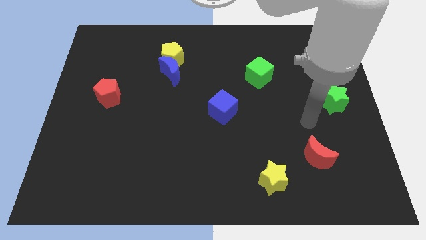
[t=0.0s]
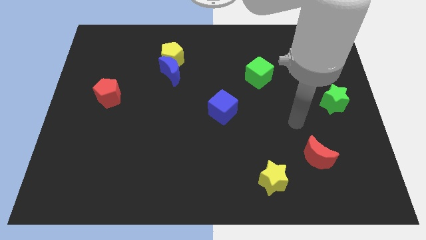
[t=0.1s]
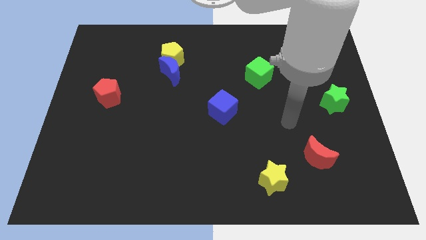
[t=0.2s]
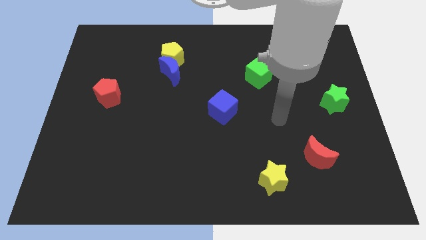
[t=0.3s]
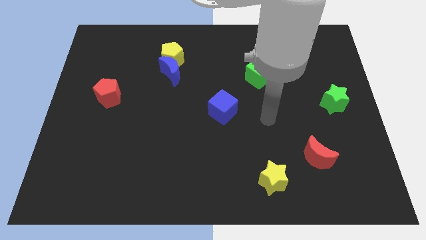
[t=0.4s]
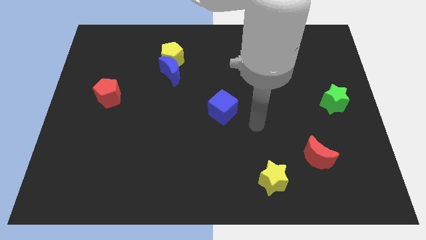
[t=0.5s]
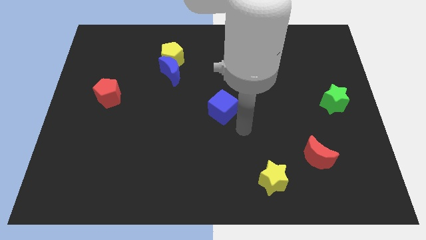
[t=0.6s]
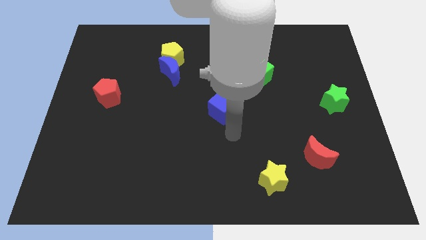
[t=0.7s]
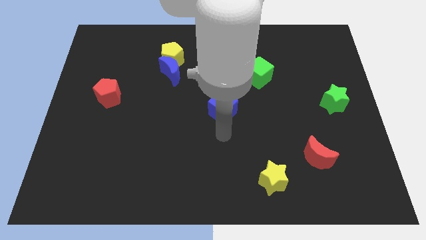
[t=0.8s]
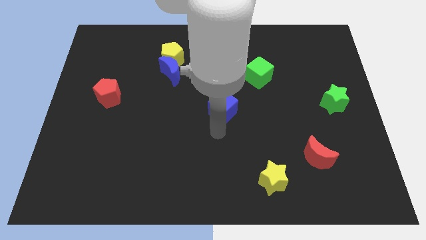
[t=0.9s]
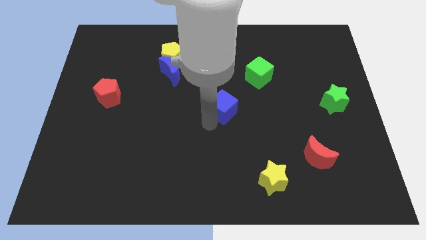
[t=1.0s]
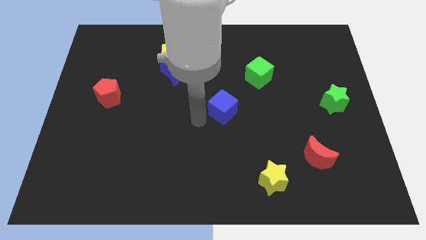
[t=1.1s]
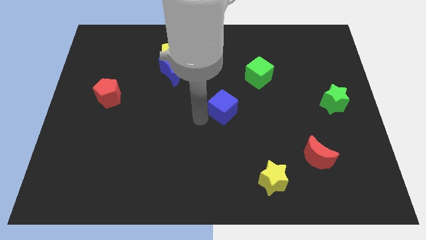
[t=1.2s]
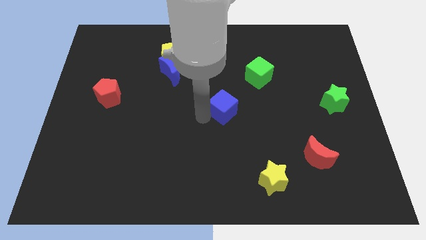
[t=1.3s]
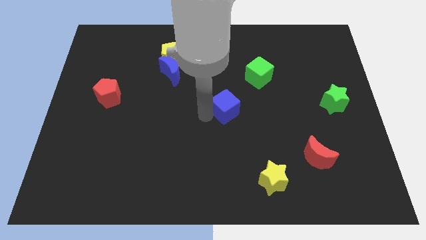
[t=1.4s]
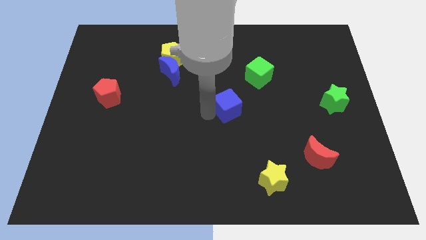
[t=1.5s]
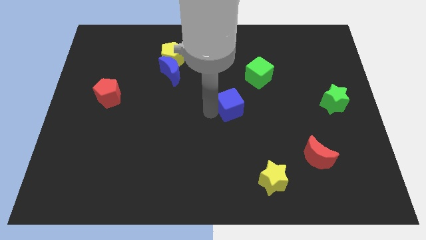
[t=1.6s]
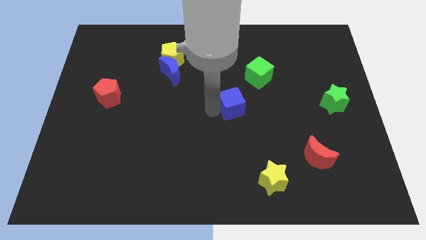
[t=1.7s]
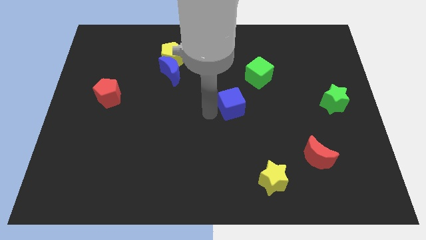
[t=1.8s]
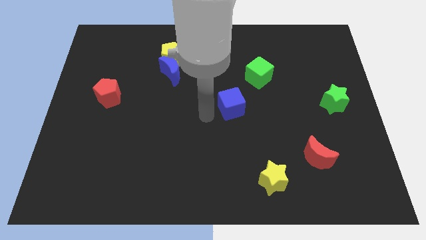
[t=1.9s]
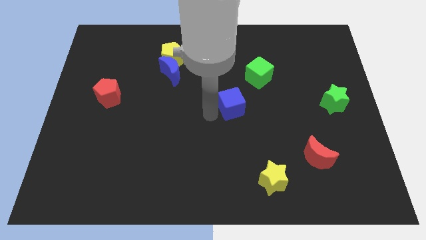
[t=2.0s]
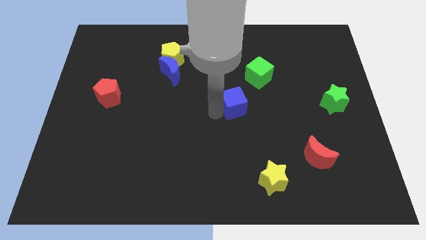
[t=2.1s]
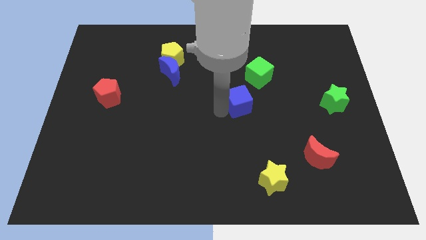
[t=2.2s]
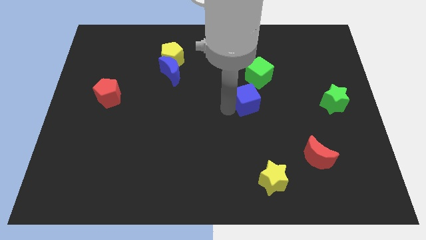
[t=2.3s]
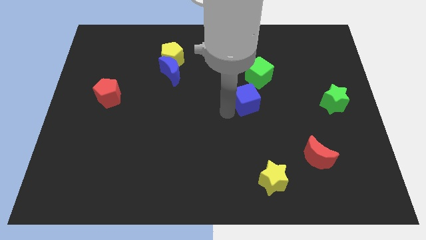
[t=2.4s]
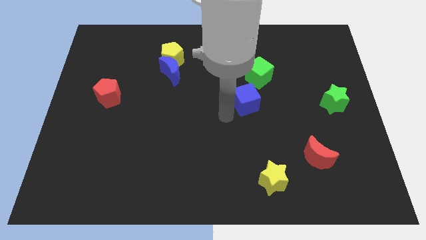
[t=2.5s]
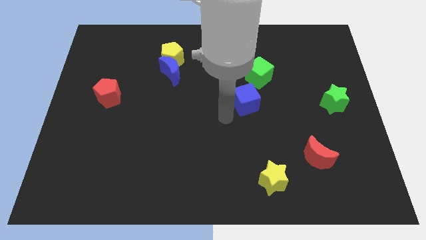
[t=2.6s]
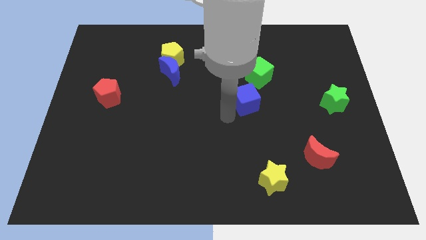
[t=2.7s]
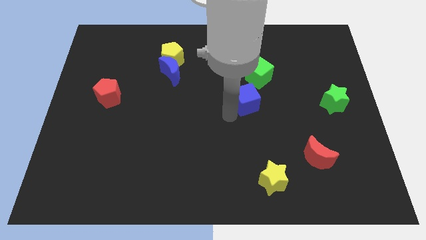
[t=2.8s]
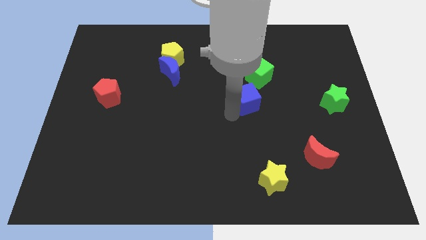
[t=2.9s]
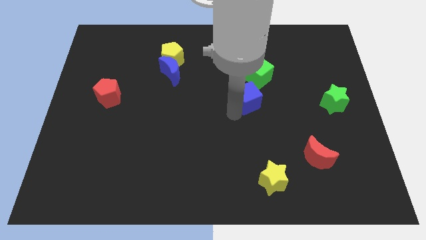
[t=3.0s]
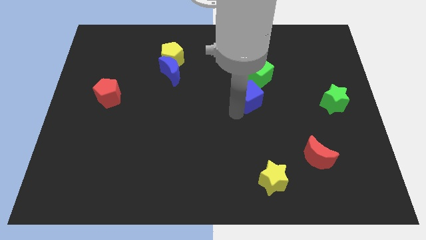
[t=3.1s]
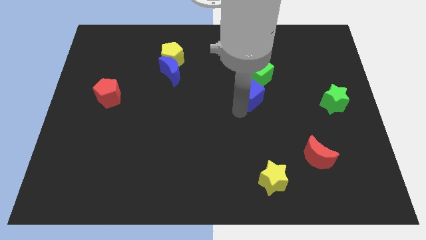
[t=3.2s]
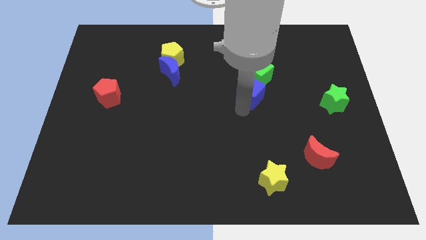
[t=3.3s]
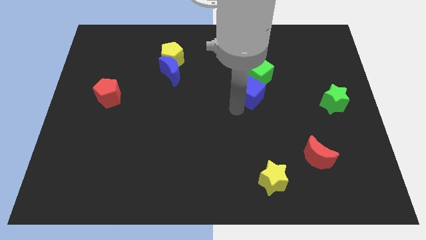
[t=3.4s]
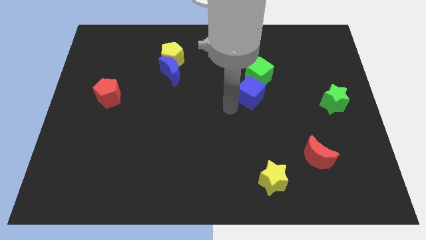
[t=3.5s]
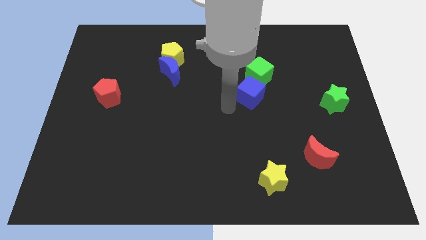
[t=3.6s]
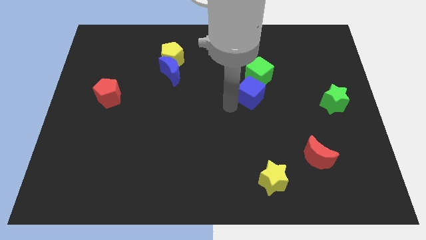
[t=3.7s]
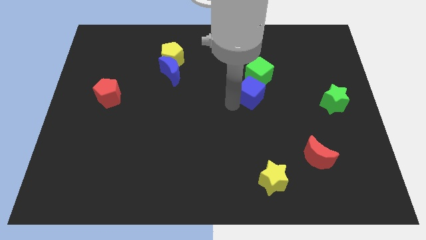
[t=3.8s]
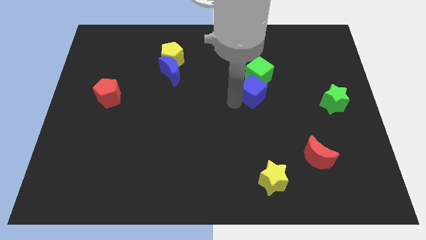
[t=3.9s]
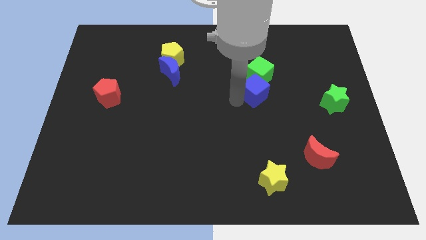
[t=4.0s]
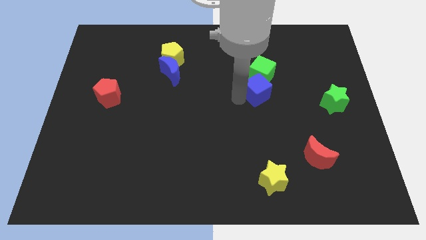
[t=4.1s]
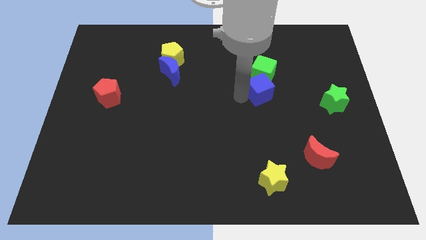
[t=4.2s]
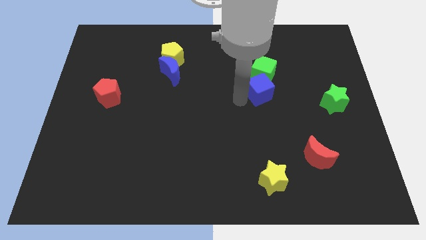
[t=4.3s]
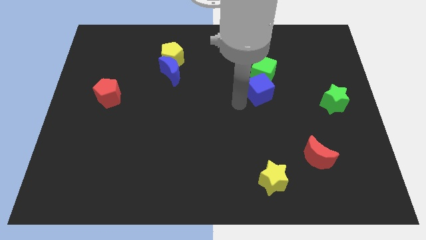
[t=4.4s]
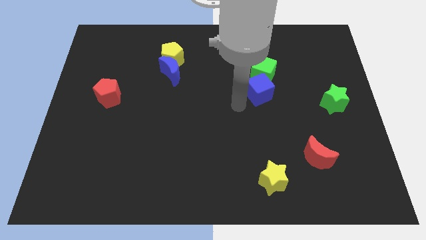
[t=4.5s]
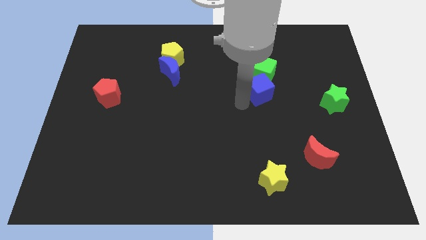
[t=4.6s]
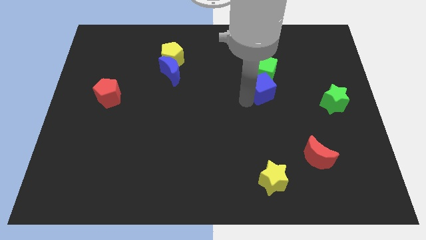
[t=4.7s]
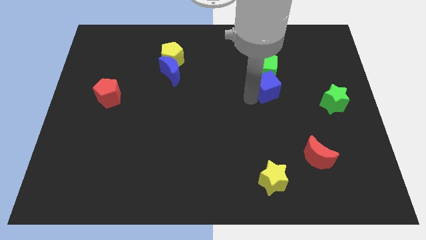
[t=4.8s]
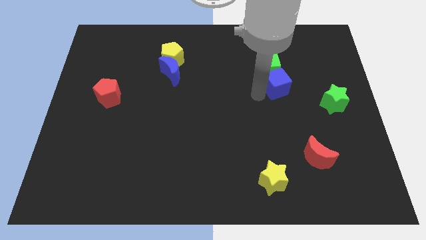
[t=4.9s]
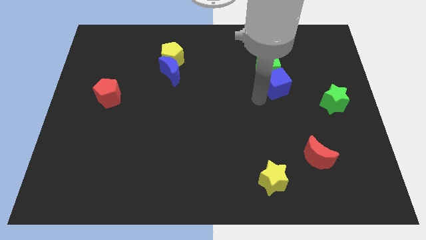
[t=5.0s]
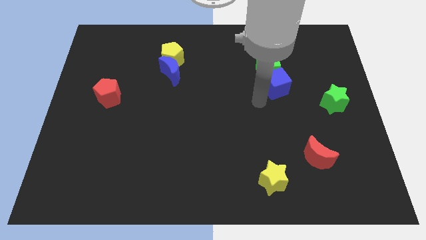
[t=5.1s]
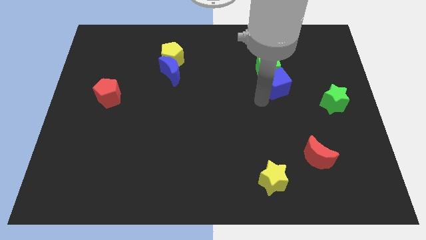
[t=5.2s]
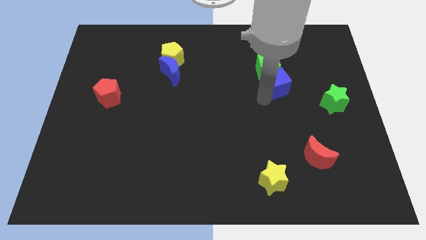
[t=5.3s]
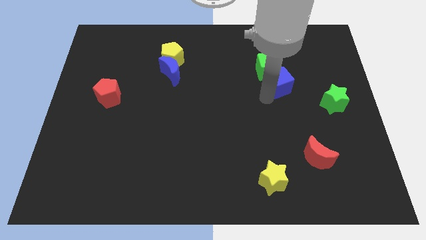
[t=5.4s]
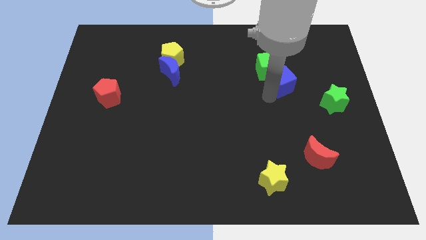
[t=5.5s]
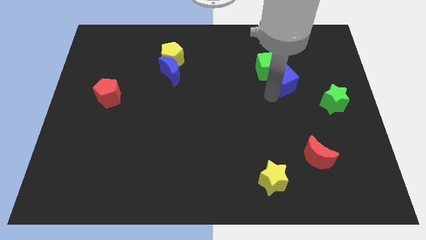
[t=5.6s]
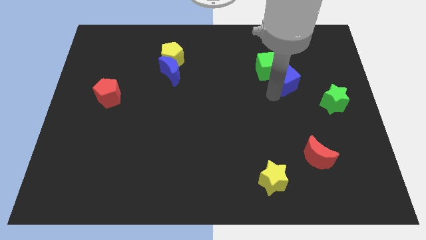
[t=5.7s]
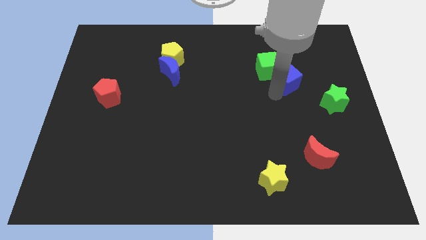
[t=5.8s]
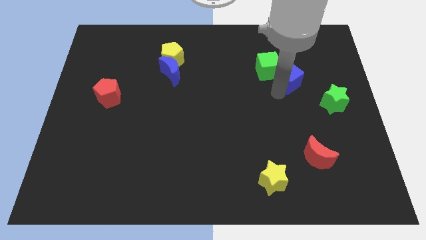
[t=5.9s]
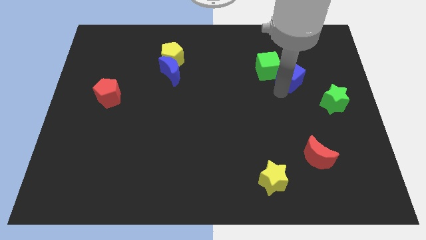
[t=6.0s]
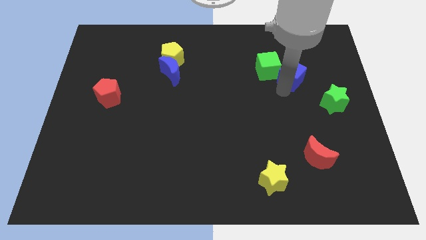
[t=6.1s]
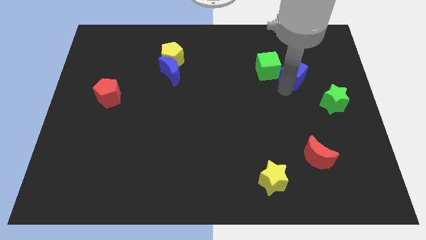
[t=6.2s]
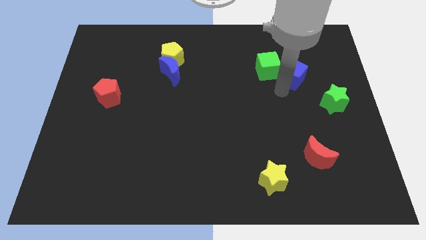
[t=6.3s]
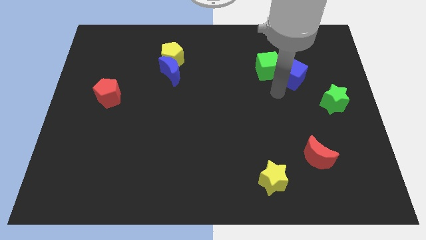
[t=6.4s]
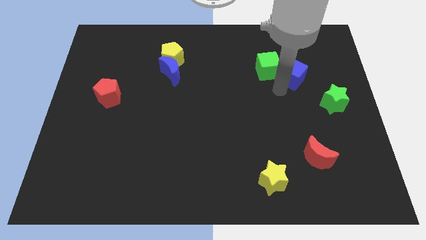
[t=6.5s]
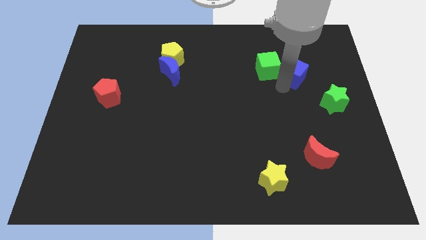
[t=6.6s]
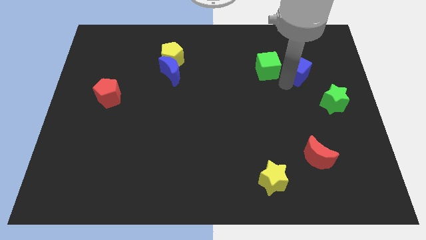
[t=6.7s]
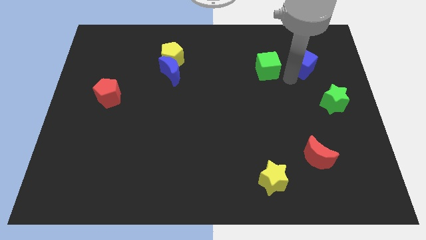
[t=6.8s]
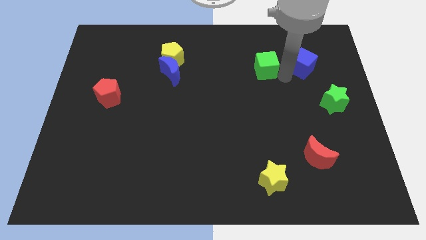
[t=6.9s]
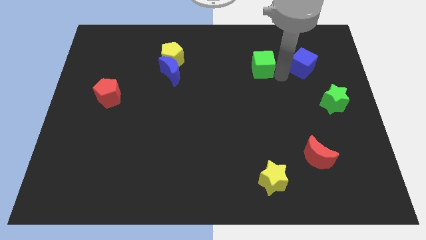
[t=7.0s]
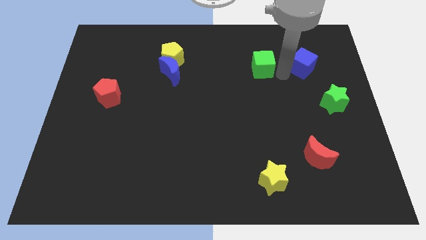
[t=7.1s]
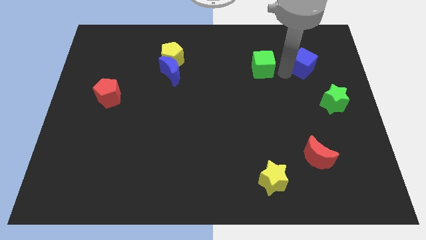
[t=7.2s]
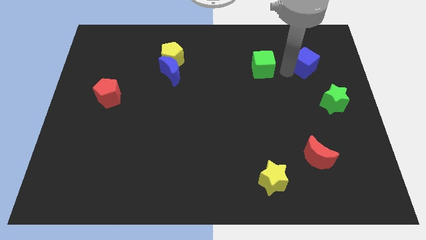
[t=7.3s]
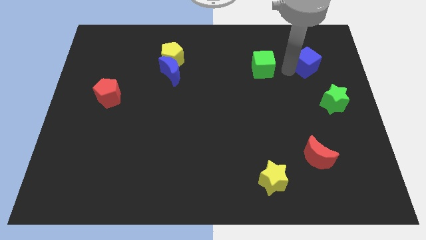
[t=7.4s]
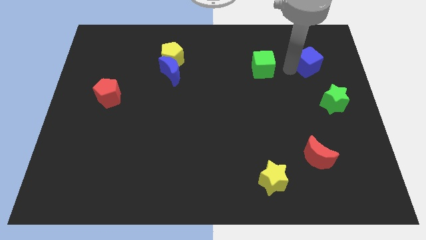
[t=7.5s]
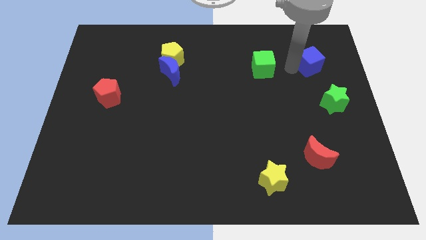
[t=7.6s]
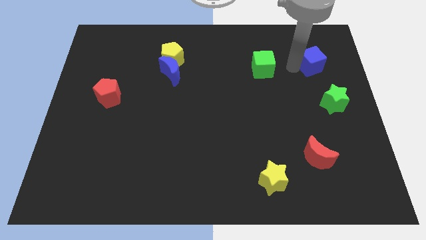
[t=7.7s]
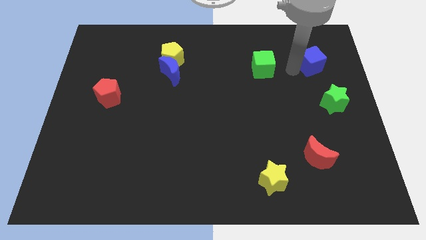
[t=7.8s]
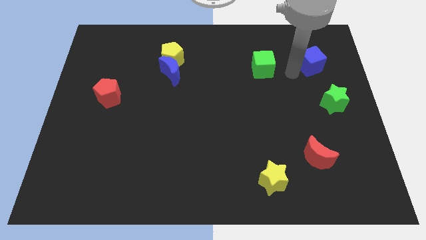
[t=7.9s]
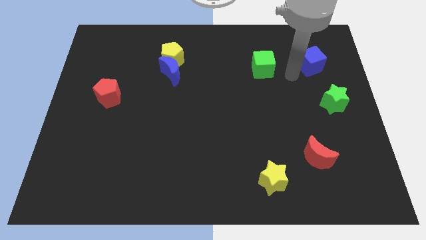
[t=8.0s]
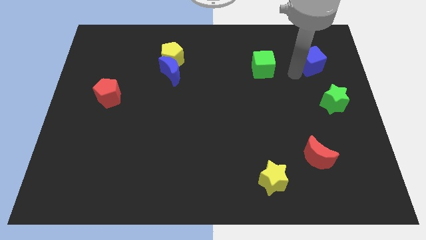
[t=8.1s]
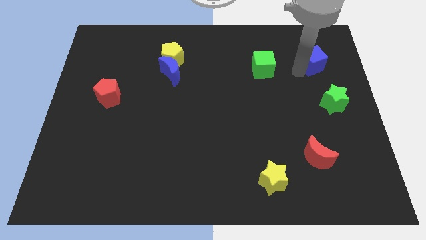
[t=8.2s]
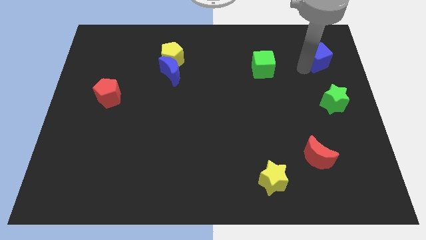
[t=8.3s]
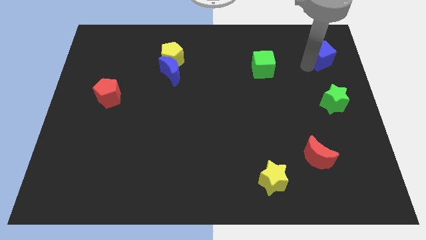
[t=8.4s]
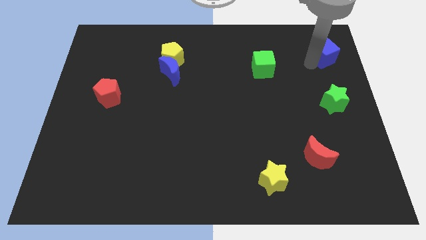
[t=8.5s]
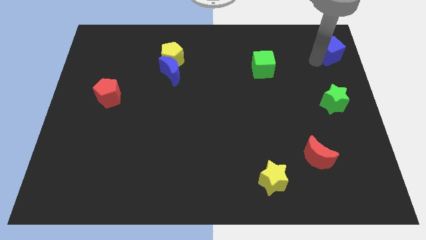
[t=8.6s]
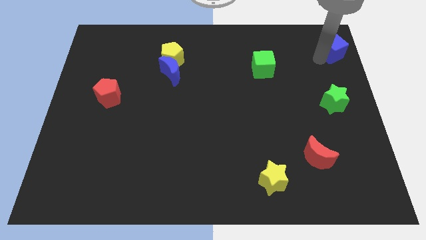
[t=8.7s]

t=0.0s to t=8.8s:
slide the blue cube to the top right corner
